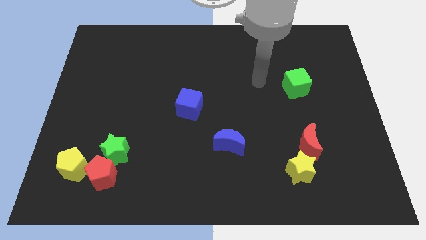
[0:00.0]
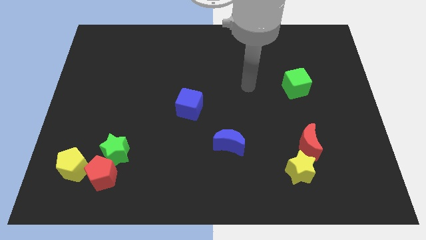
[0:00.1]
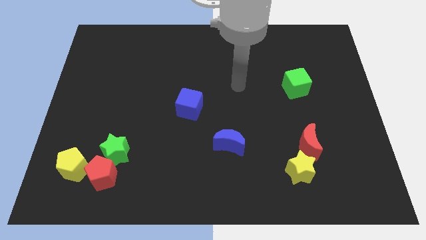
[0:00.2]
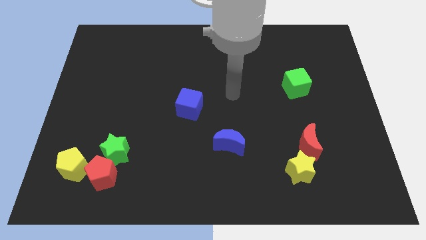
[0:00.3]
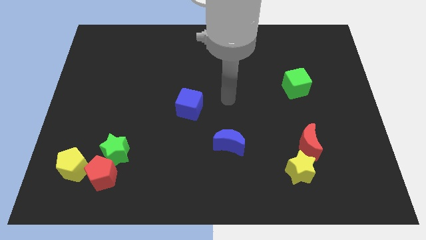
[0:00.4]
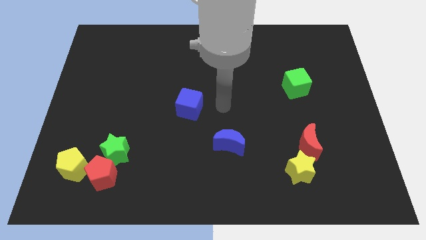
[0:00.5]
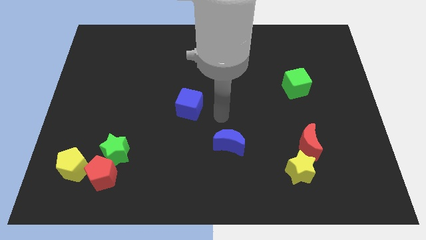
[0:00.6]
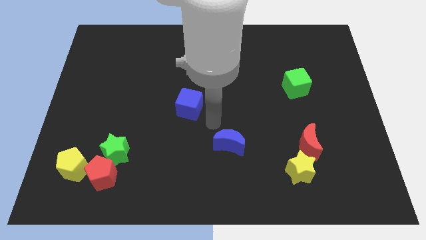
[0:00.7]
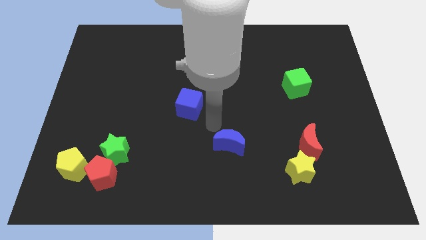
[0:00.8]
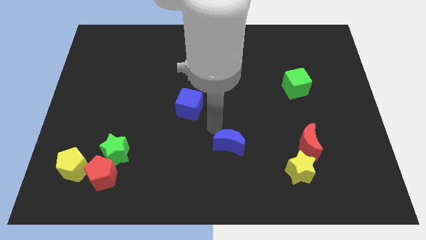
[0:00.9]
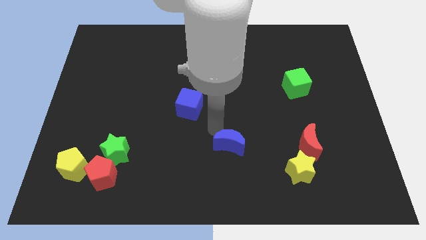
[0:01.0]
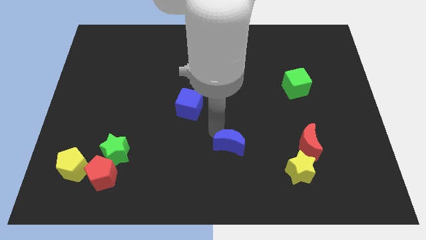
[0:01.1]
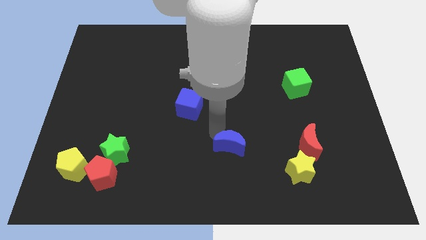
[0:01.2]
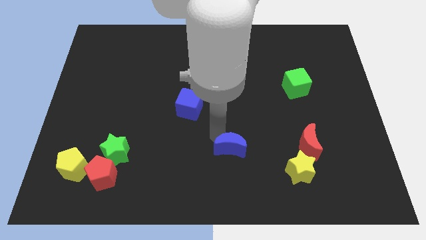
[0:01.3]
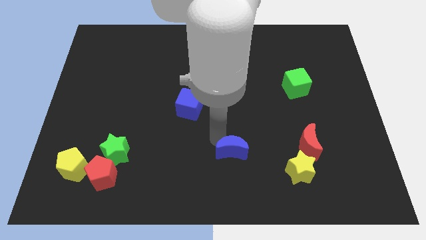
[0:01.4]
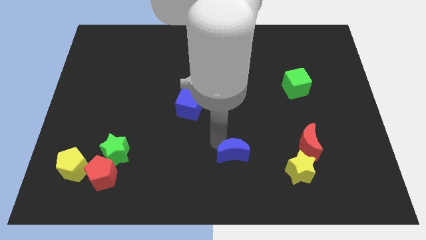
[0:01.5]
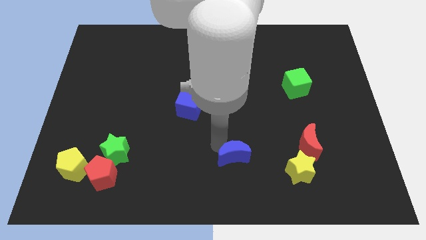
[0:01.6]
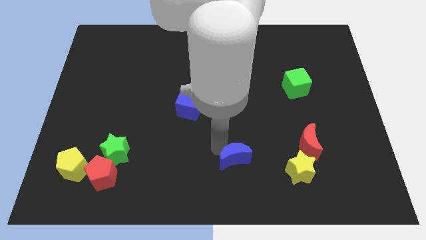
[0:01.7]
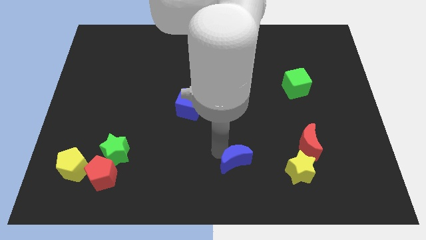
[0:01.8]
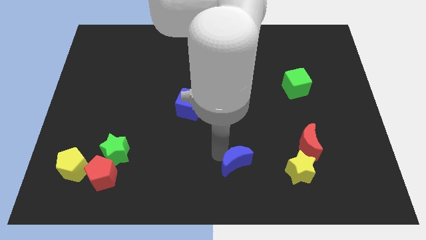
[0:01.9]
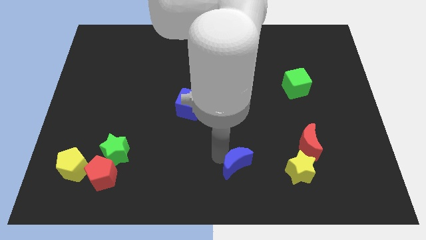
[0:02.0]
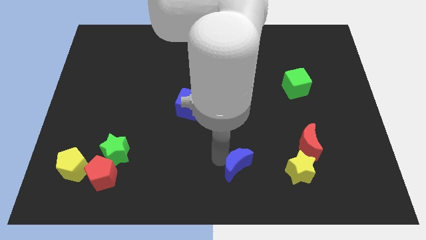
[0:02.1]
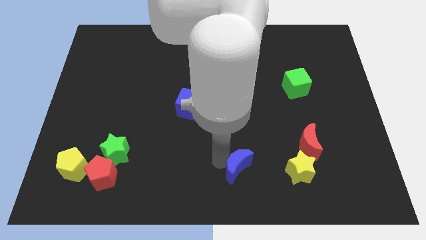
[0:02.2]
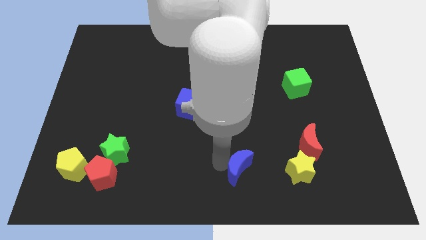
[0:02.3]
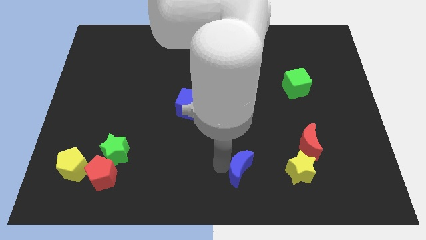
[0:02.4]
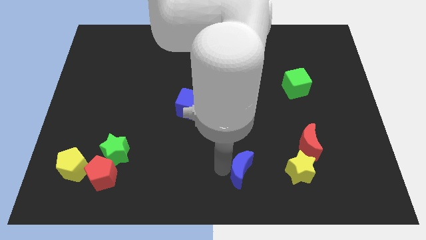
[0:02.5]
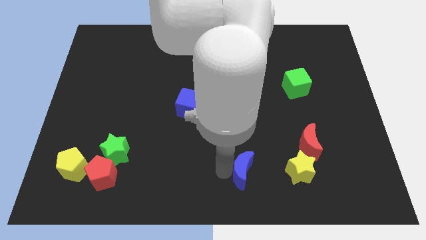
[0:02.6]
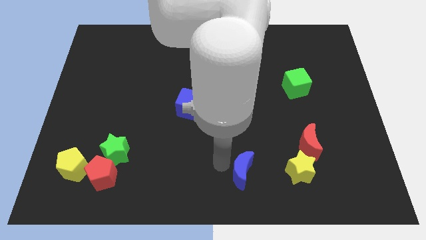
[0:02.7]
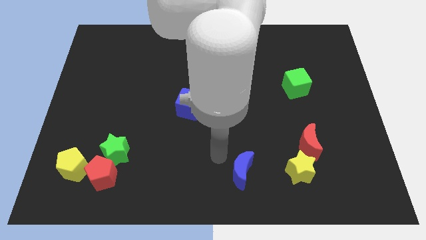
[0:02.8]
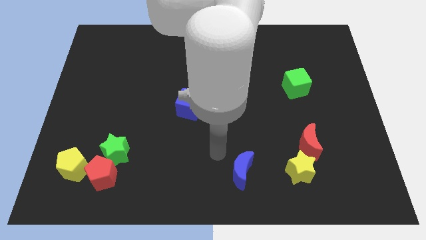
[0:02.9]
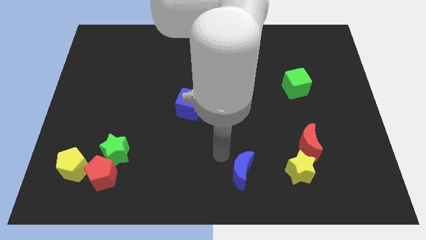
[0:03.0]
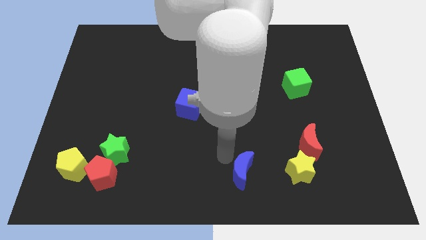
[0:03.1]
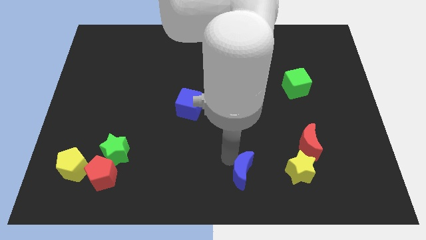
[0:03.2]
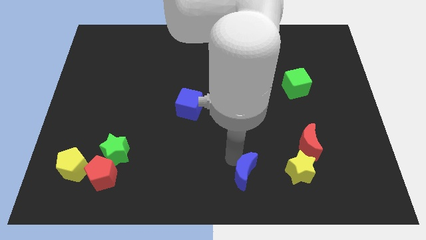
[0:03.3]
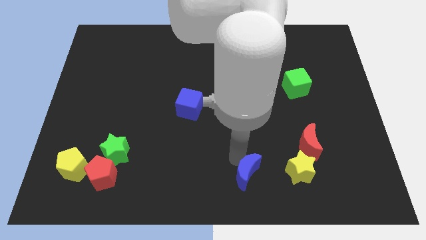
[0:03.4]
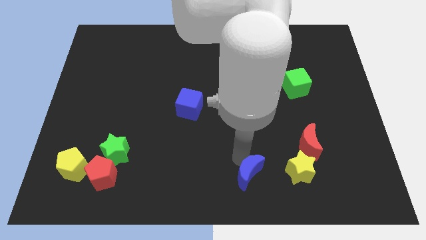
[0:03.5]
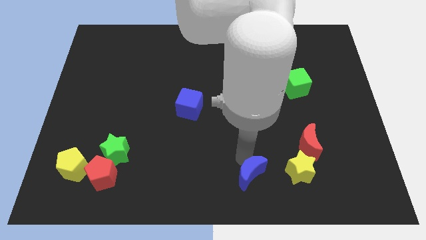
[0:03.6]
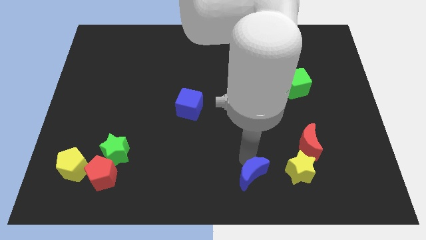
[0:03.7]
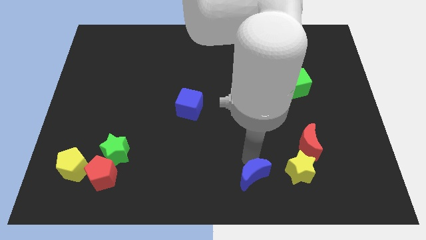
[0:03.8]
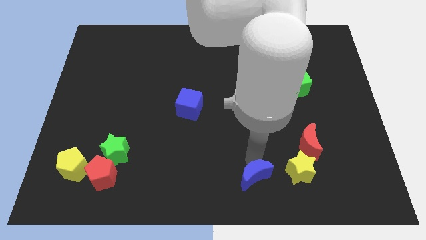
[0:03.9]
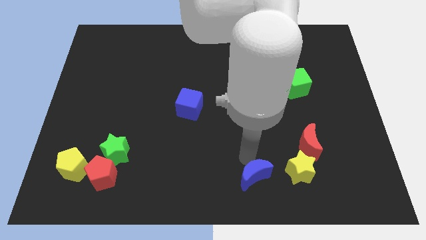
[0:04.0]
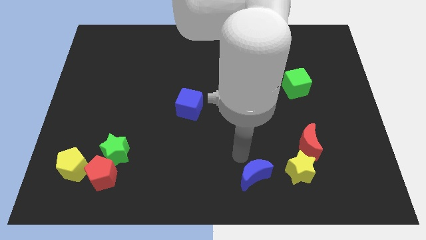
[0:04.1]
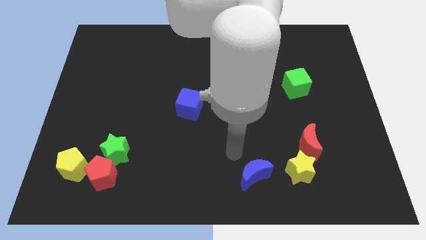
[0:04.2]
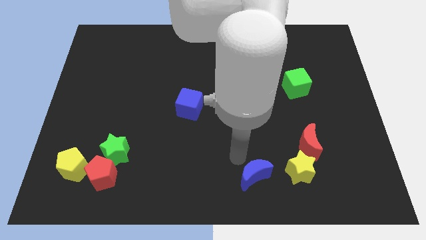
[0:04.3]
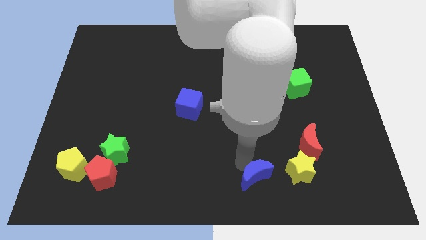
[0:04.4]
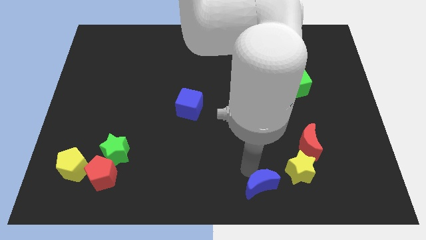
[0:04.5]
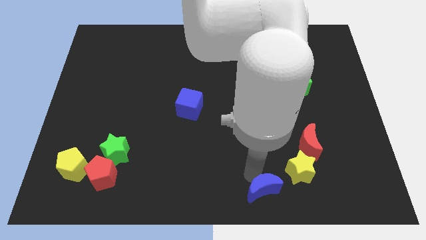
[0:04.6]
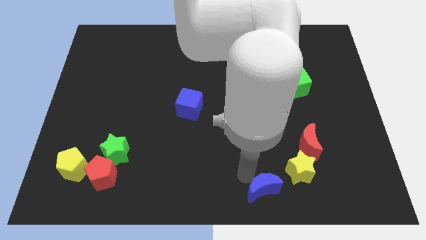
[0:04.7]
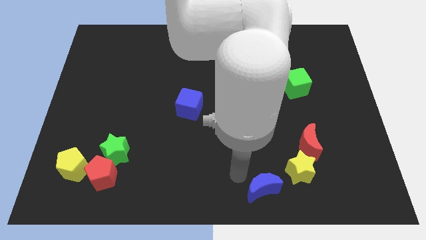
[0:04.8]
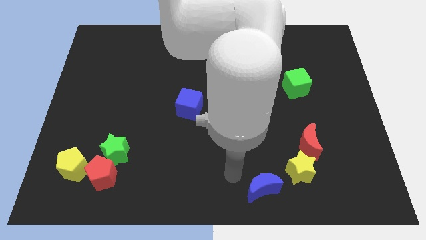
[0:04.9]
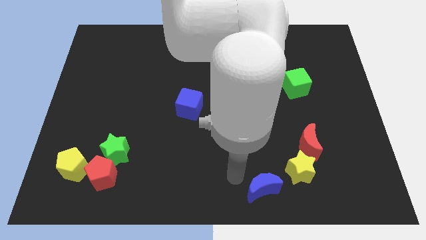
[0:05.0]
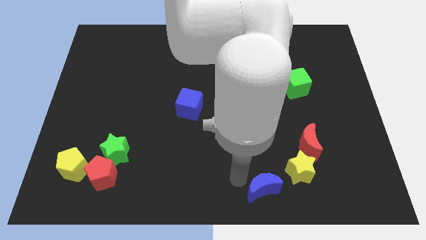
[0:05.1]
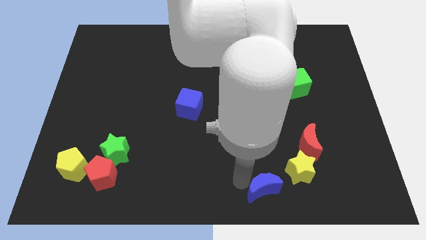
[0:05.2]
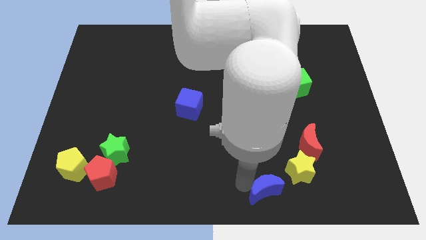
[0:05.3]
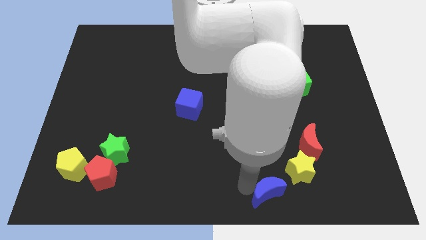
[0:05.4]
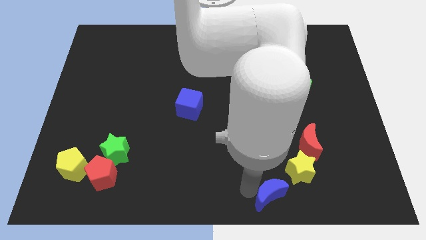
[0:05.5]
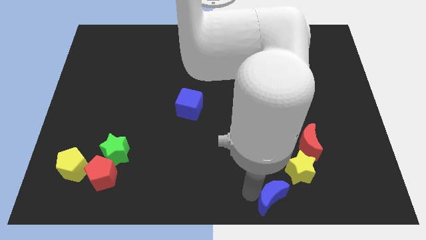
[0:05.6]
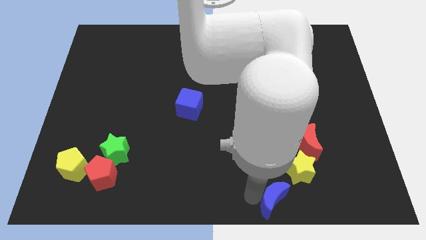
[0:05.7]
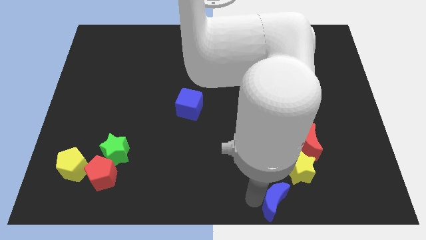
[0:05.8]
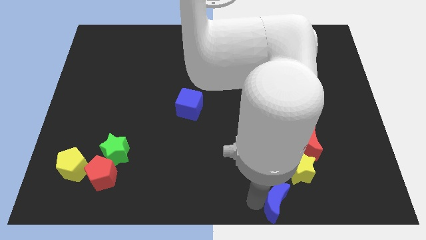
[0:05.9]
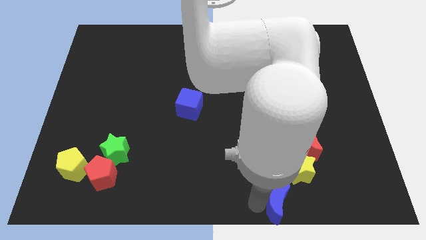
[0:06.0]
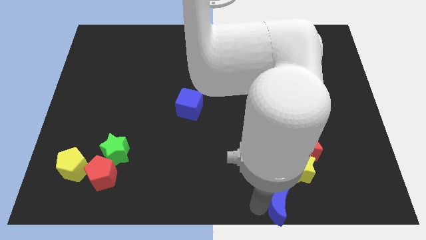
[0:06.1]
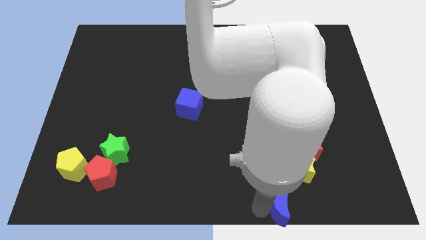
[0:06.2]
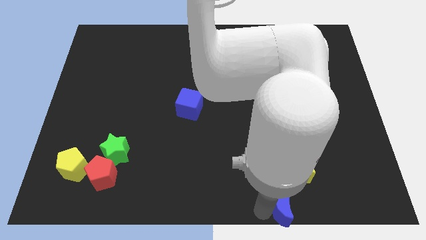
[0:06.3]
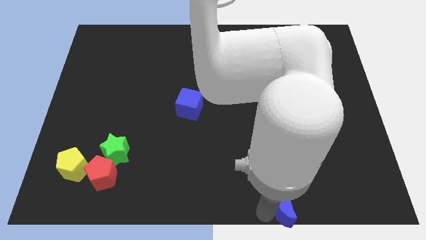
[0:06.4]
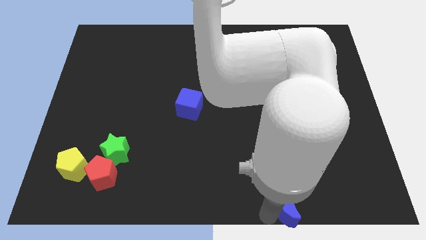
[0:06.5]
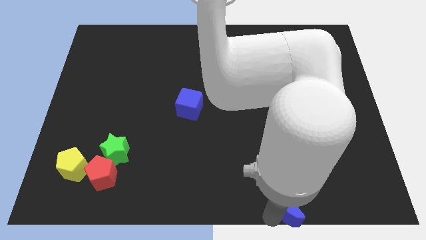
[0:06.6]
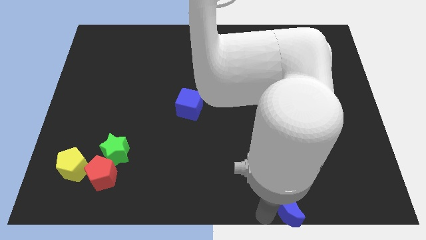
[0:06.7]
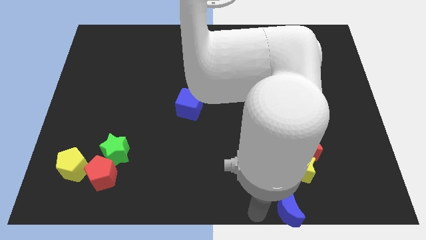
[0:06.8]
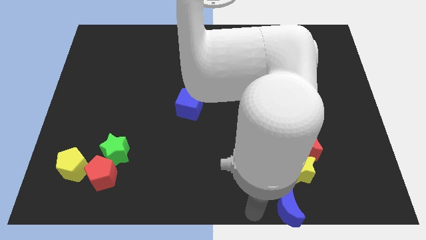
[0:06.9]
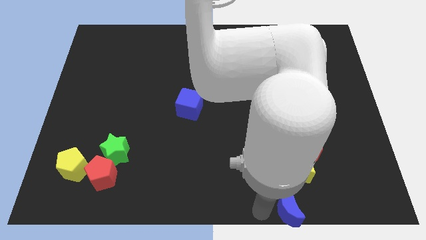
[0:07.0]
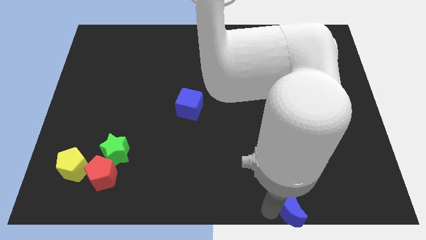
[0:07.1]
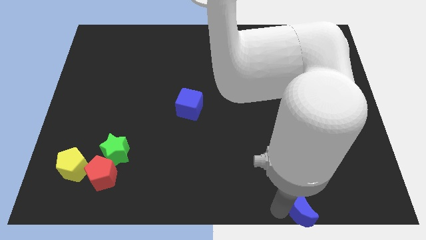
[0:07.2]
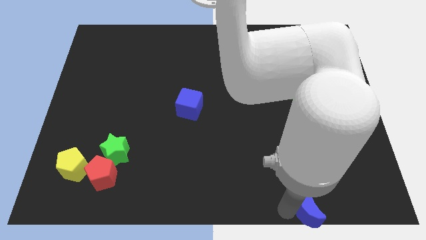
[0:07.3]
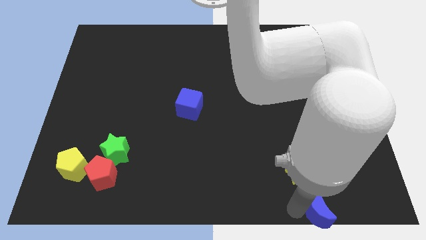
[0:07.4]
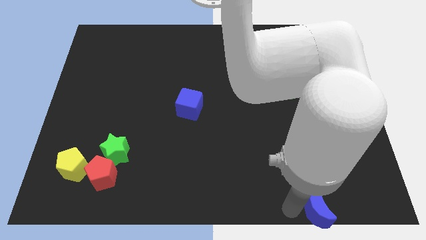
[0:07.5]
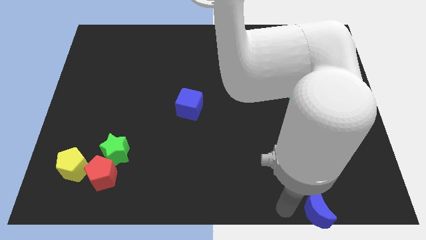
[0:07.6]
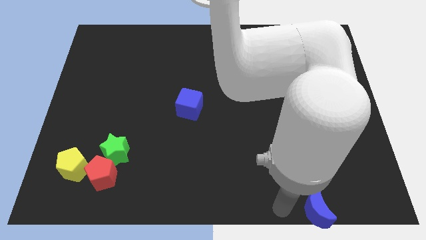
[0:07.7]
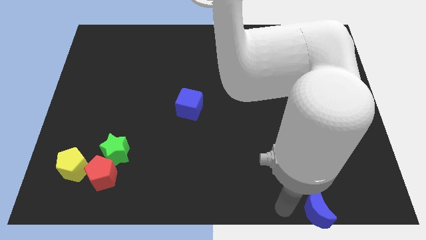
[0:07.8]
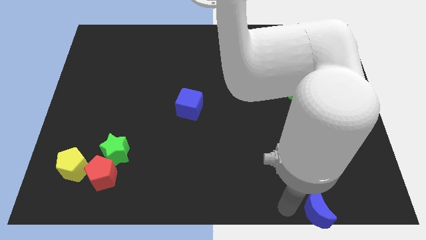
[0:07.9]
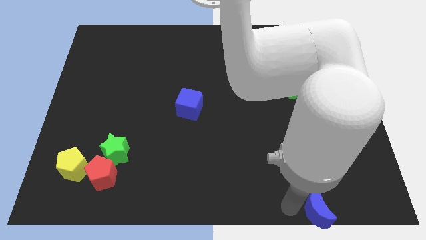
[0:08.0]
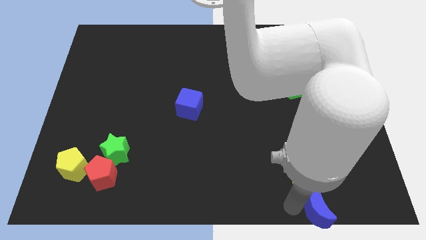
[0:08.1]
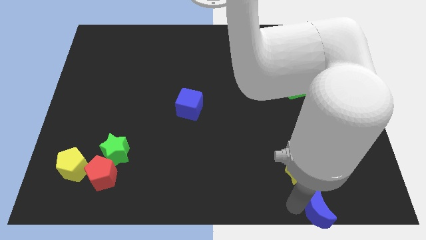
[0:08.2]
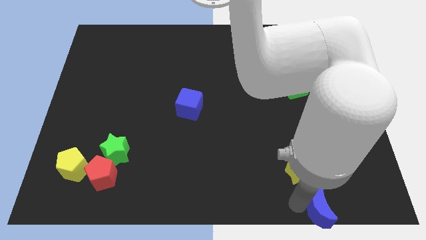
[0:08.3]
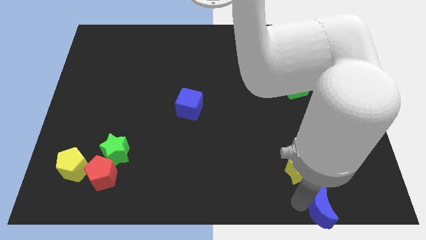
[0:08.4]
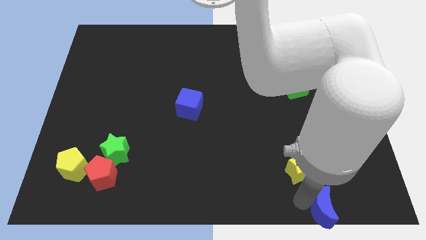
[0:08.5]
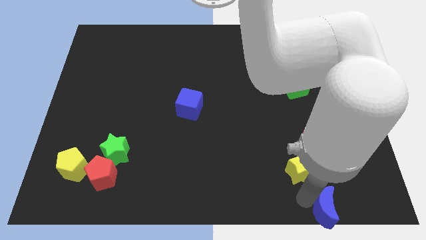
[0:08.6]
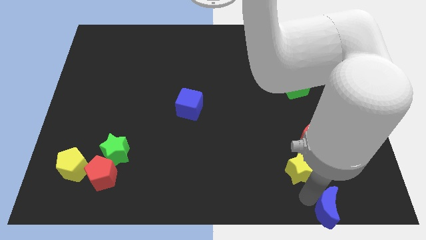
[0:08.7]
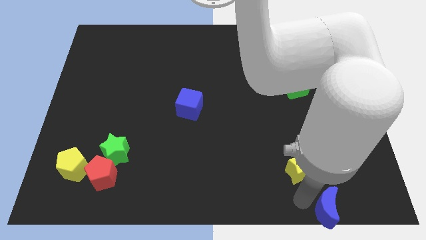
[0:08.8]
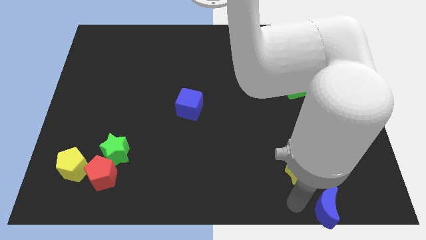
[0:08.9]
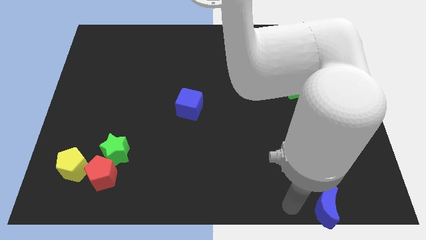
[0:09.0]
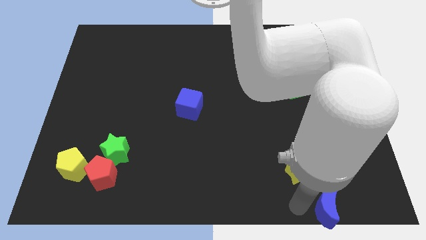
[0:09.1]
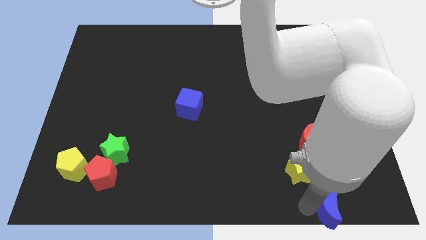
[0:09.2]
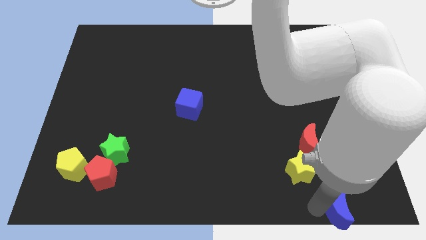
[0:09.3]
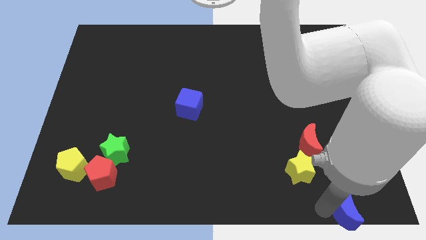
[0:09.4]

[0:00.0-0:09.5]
put the blue moon to the lower right corner
